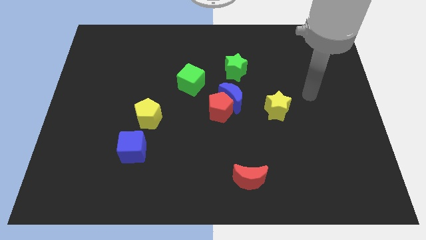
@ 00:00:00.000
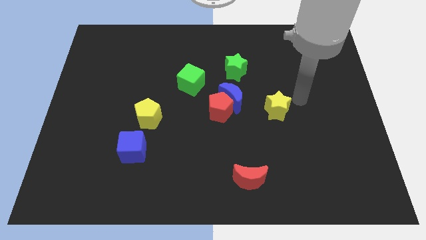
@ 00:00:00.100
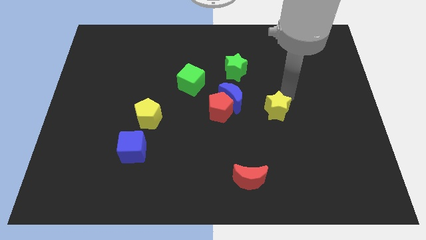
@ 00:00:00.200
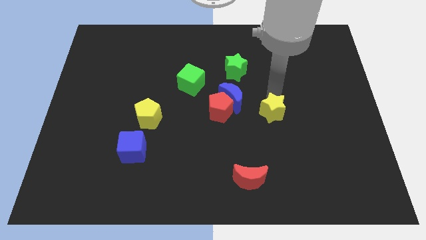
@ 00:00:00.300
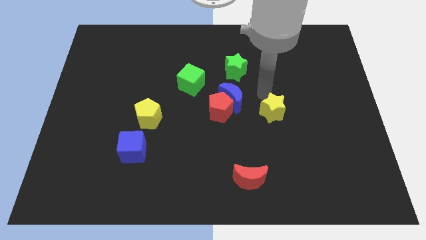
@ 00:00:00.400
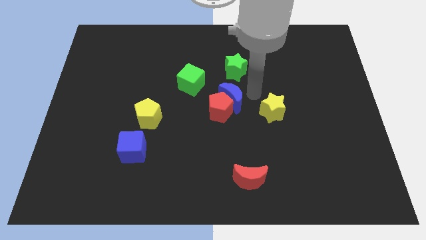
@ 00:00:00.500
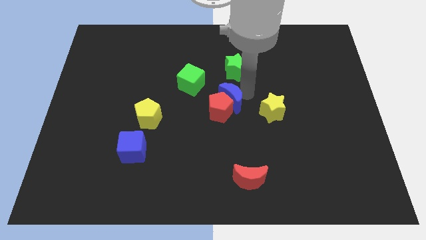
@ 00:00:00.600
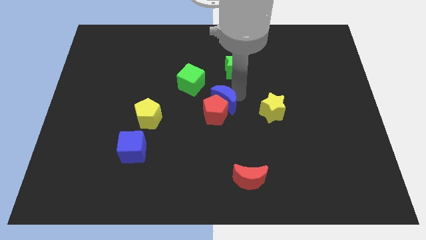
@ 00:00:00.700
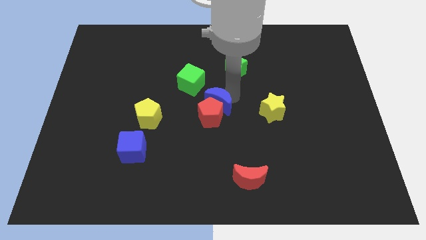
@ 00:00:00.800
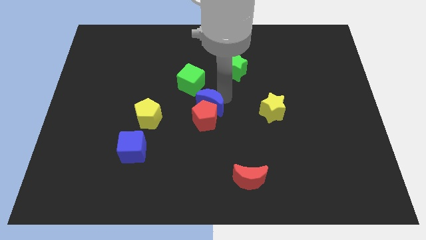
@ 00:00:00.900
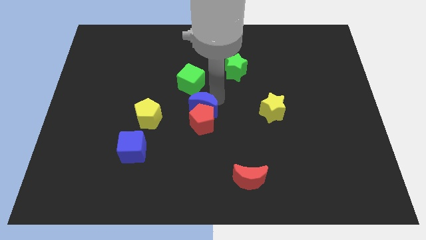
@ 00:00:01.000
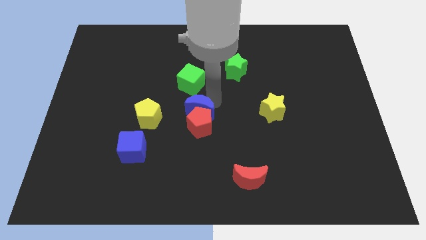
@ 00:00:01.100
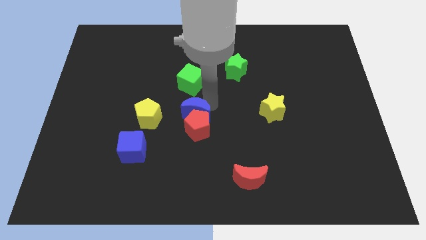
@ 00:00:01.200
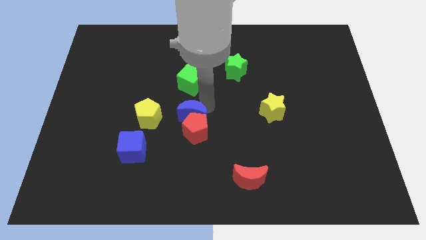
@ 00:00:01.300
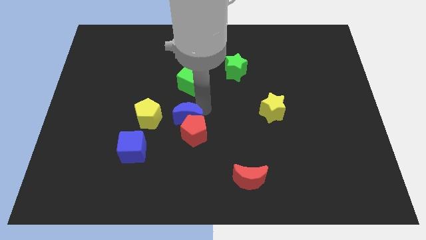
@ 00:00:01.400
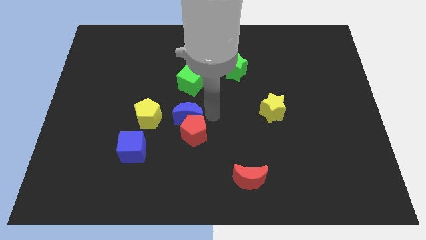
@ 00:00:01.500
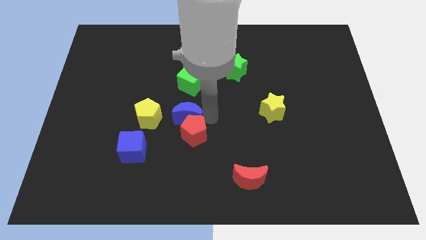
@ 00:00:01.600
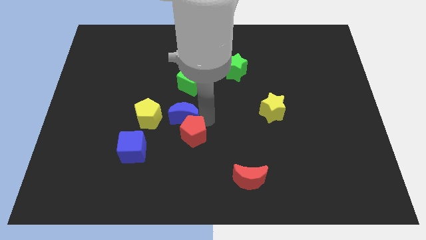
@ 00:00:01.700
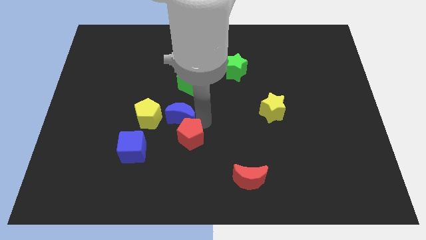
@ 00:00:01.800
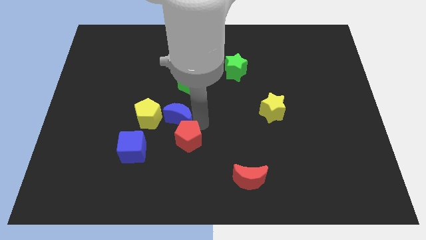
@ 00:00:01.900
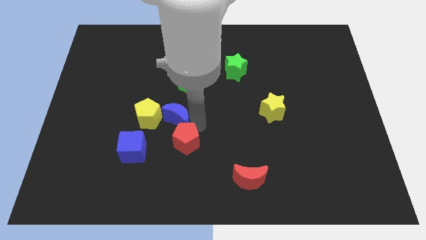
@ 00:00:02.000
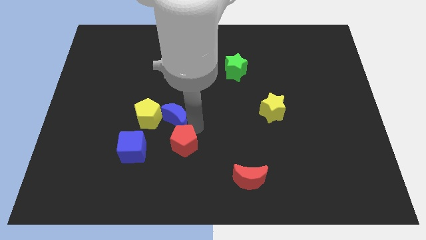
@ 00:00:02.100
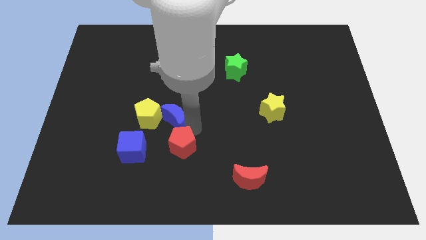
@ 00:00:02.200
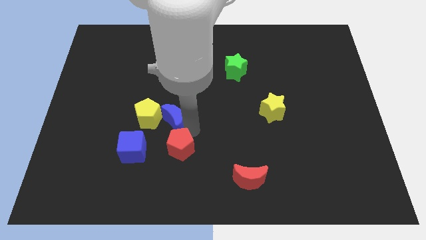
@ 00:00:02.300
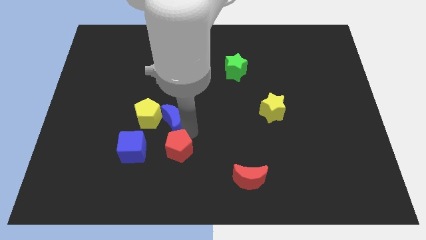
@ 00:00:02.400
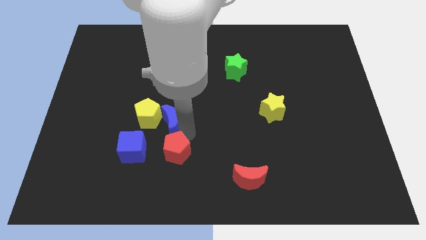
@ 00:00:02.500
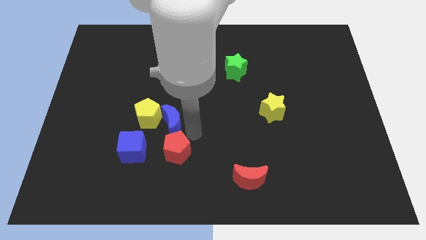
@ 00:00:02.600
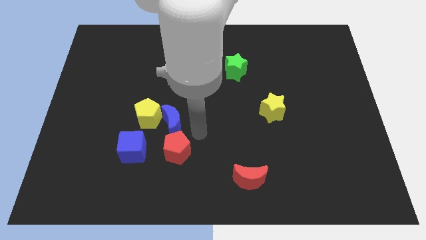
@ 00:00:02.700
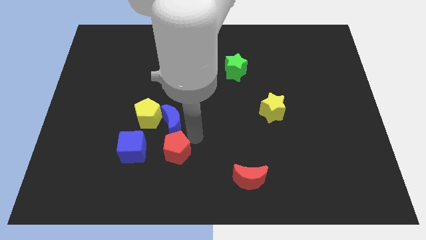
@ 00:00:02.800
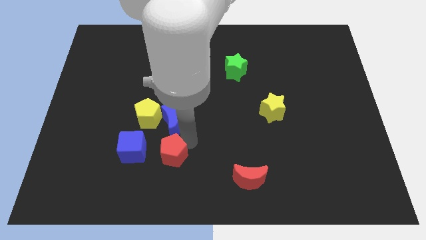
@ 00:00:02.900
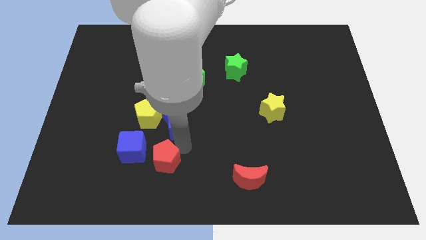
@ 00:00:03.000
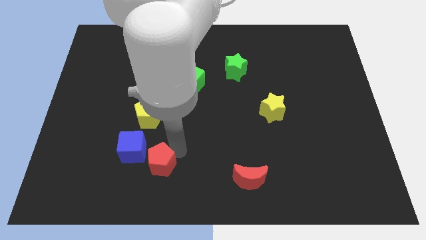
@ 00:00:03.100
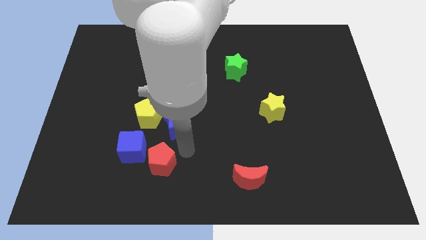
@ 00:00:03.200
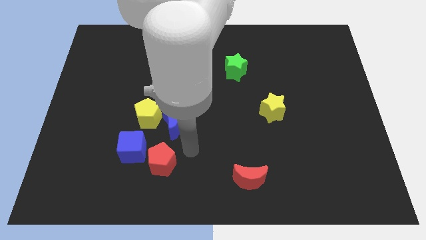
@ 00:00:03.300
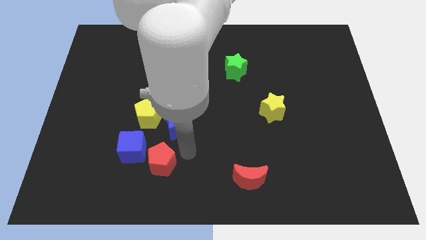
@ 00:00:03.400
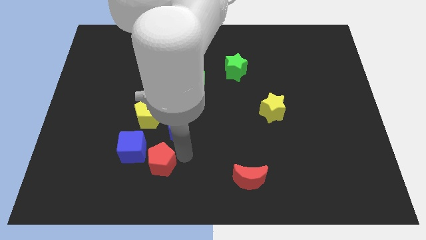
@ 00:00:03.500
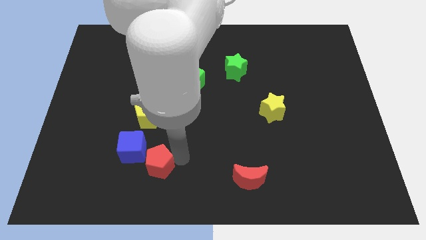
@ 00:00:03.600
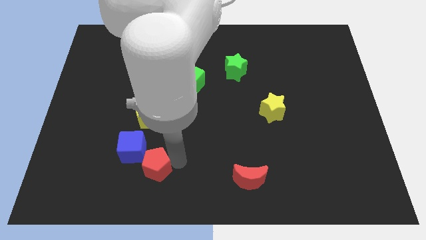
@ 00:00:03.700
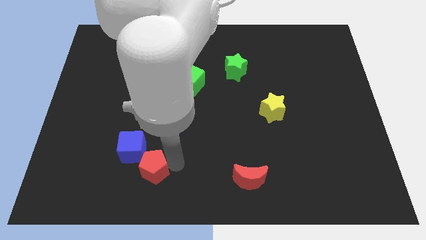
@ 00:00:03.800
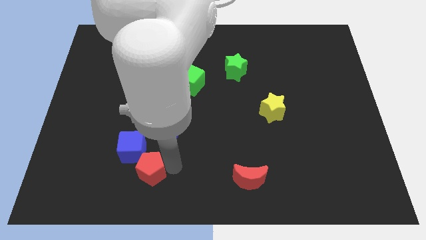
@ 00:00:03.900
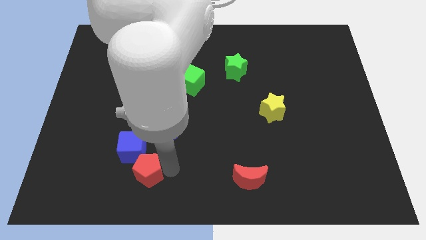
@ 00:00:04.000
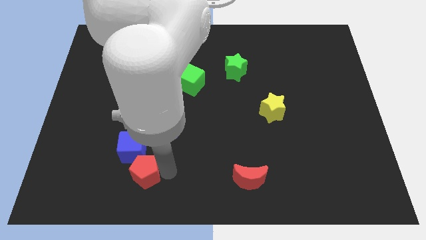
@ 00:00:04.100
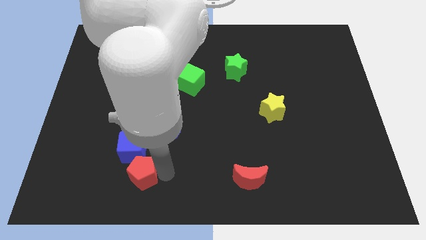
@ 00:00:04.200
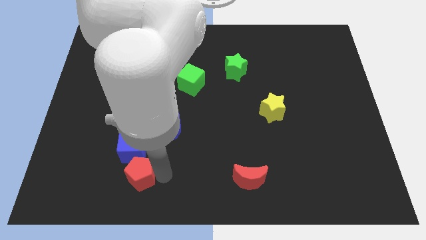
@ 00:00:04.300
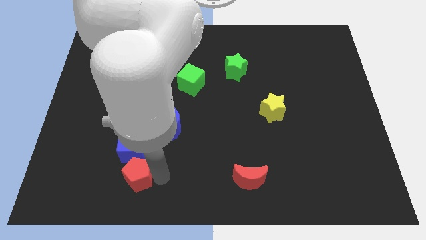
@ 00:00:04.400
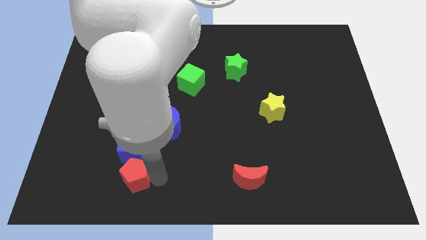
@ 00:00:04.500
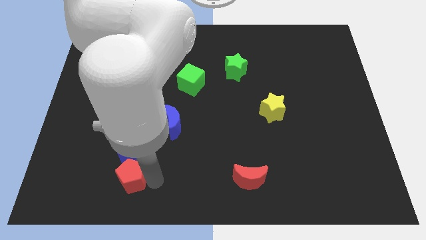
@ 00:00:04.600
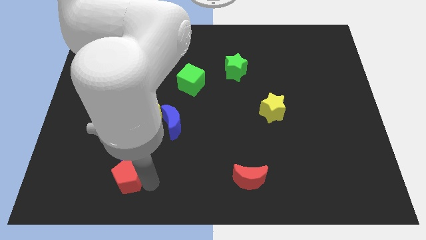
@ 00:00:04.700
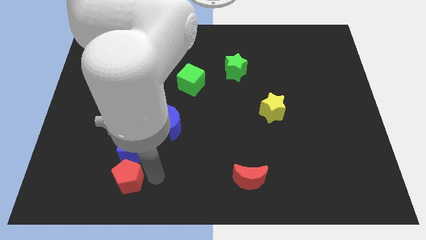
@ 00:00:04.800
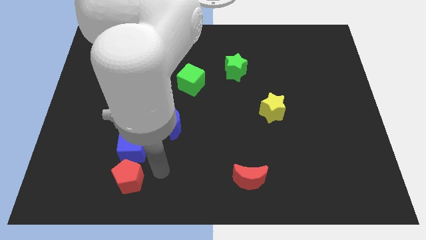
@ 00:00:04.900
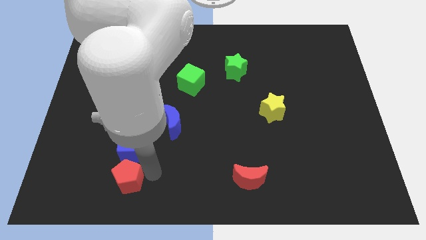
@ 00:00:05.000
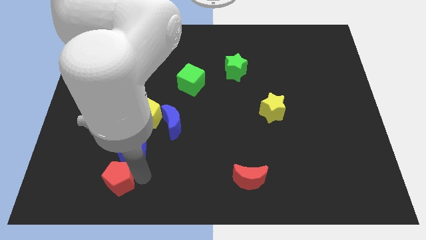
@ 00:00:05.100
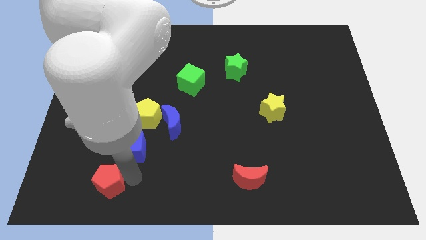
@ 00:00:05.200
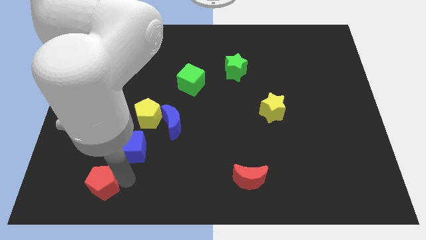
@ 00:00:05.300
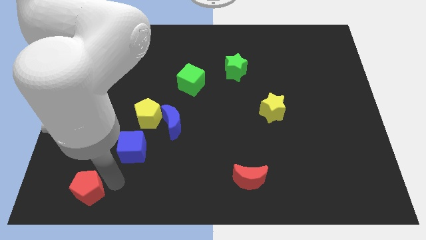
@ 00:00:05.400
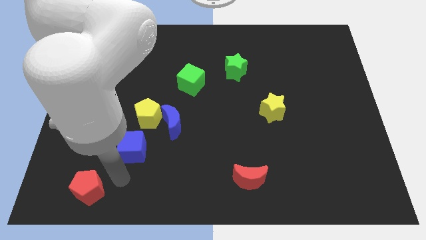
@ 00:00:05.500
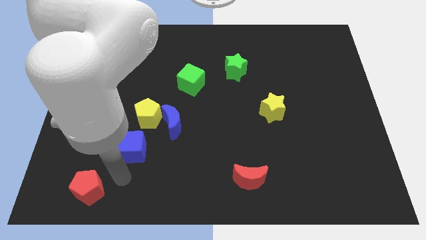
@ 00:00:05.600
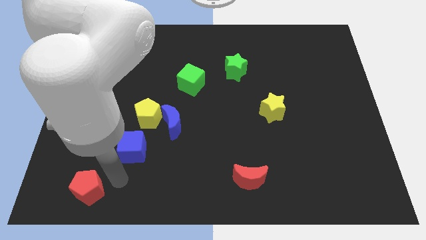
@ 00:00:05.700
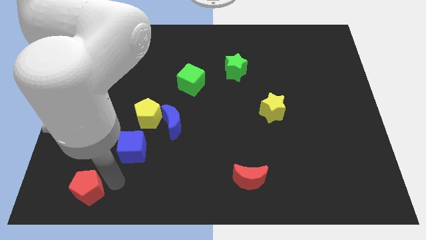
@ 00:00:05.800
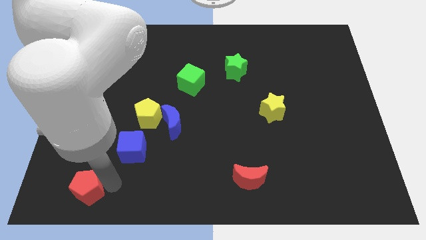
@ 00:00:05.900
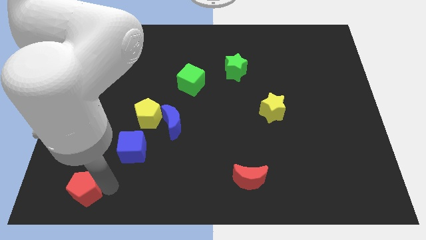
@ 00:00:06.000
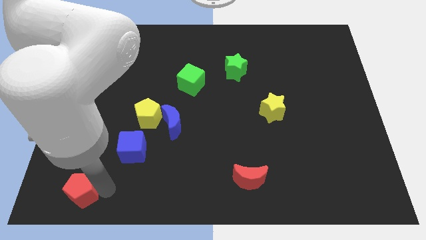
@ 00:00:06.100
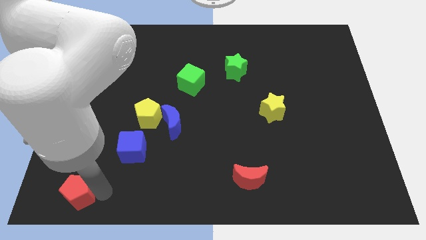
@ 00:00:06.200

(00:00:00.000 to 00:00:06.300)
put the red pentagon to the bottom left corner

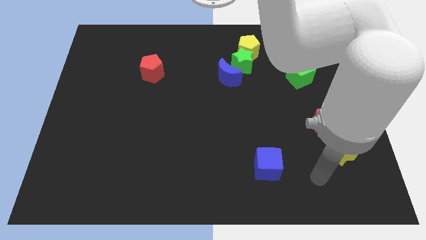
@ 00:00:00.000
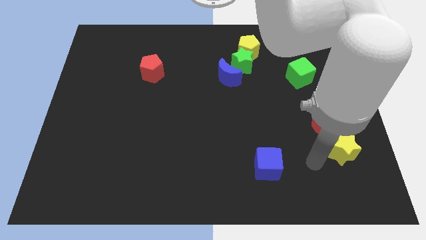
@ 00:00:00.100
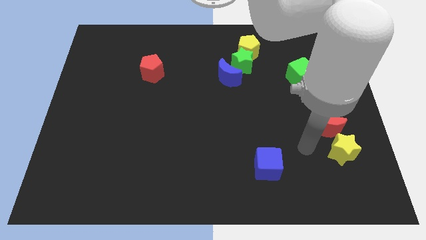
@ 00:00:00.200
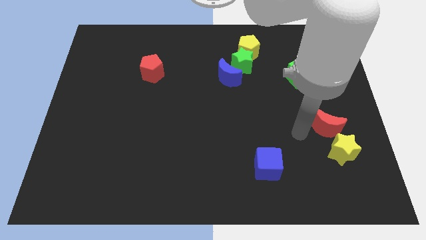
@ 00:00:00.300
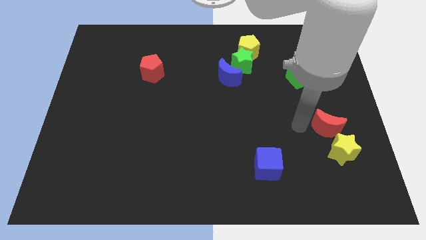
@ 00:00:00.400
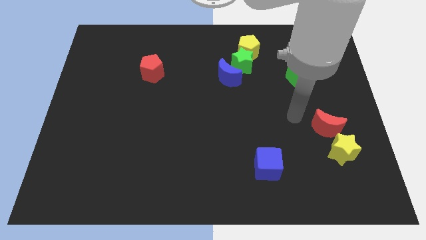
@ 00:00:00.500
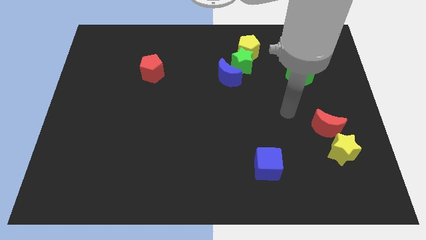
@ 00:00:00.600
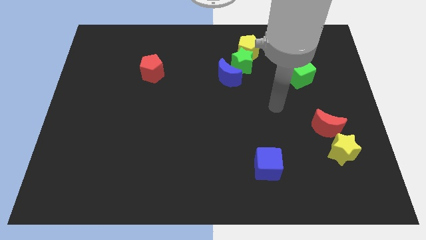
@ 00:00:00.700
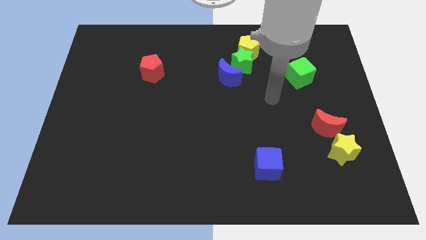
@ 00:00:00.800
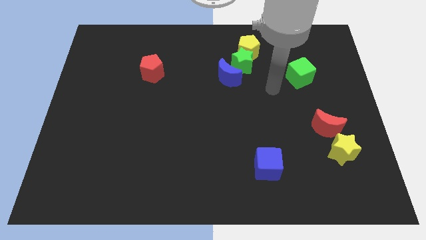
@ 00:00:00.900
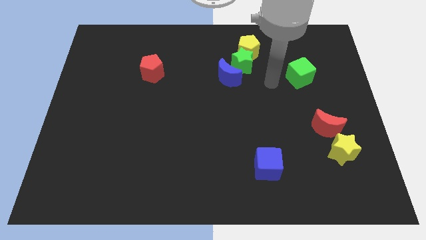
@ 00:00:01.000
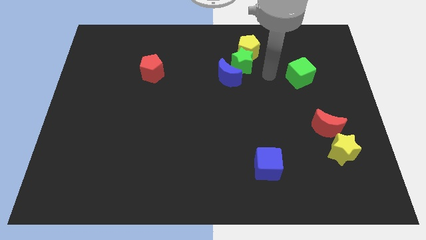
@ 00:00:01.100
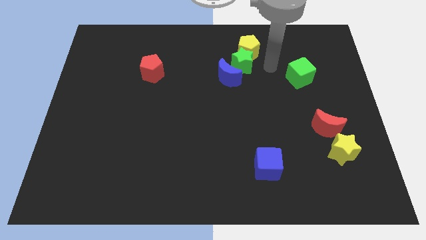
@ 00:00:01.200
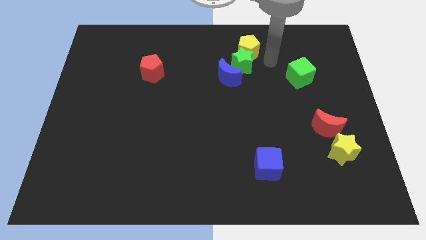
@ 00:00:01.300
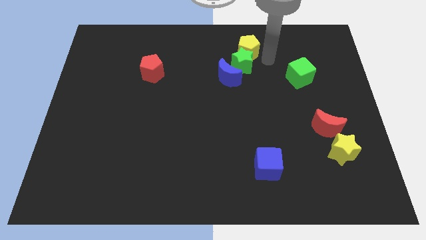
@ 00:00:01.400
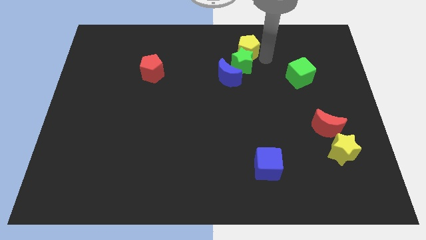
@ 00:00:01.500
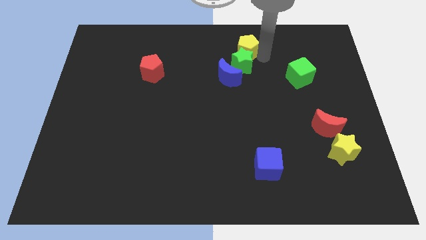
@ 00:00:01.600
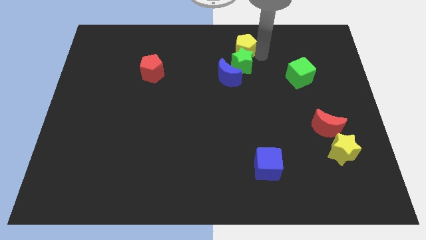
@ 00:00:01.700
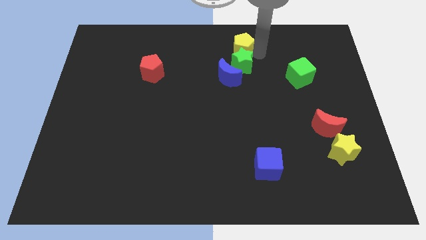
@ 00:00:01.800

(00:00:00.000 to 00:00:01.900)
put the yellow pentagon to the top
